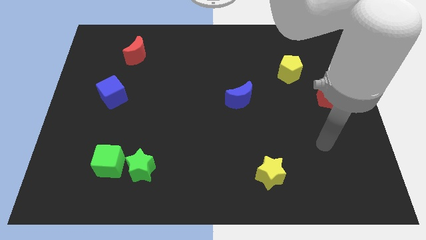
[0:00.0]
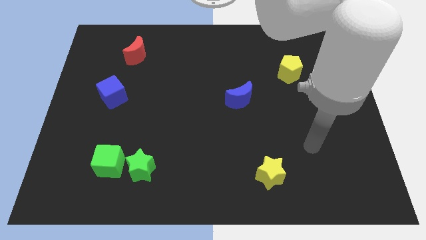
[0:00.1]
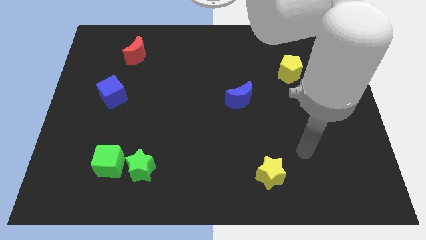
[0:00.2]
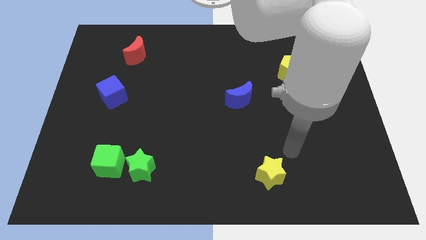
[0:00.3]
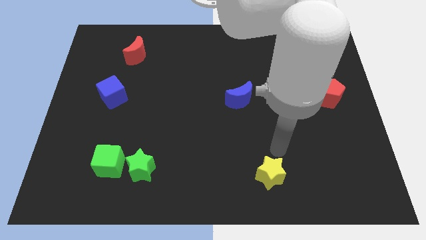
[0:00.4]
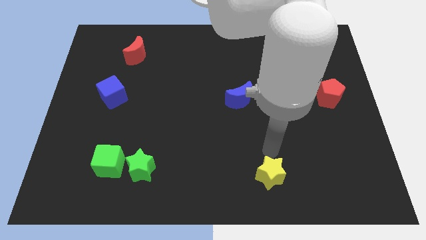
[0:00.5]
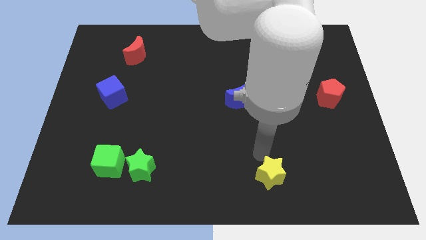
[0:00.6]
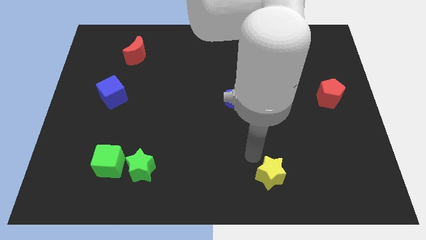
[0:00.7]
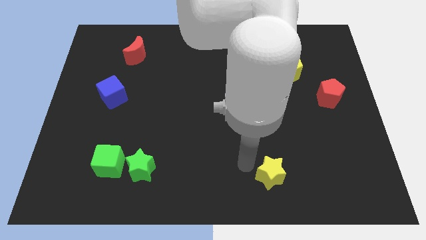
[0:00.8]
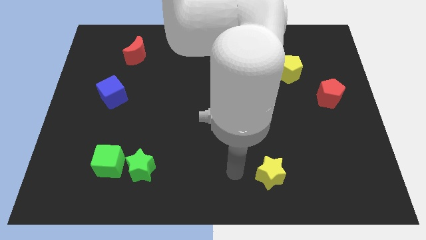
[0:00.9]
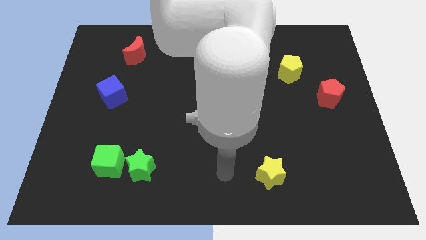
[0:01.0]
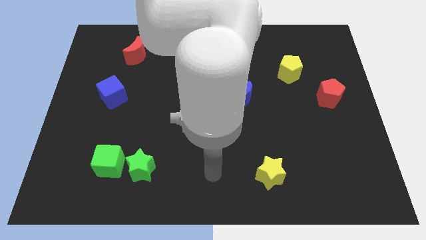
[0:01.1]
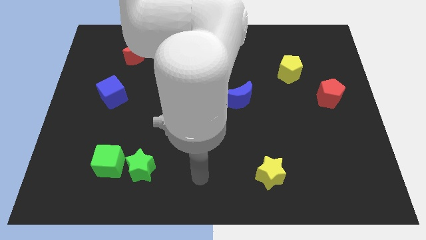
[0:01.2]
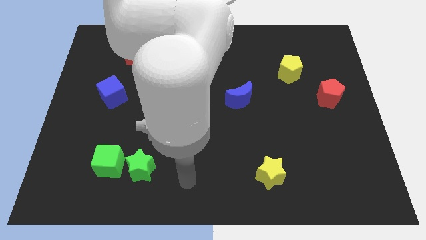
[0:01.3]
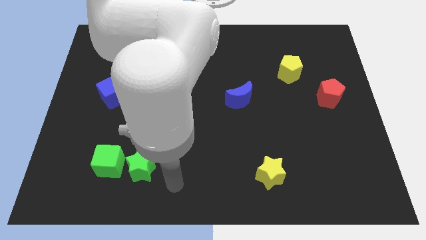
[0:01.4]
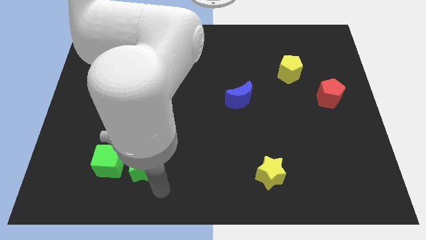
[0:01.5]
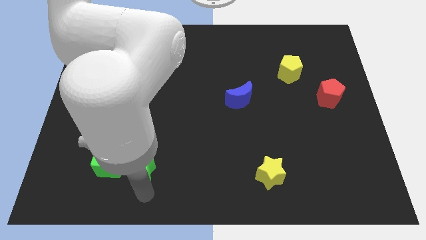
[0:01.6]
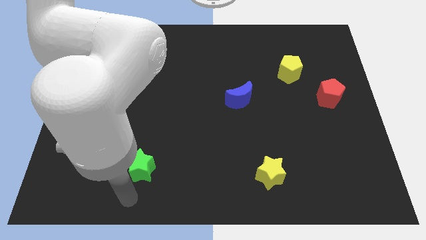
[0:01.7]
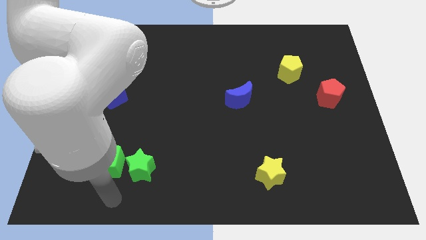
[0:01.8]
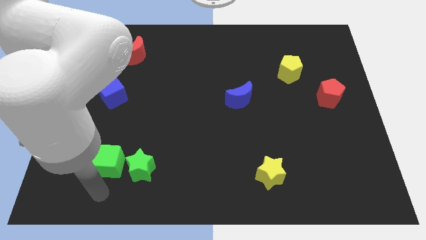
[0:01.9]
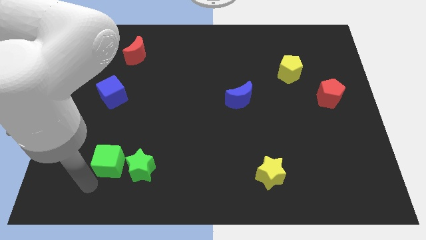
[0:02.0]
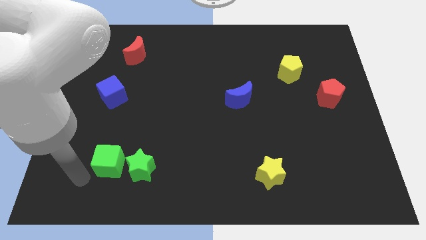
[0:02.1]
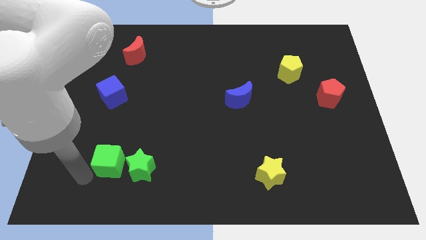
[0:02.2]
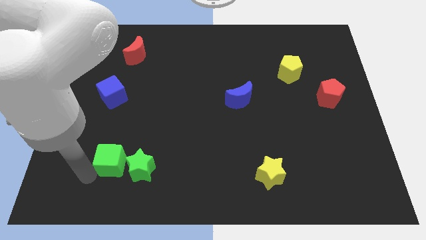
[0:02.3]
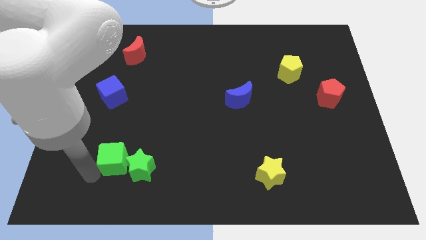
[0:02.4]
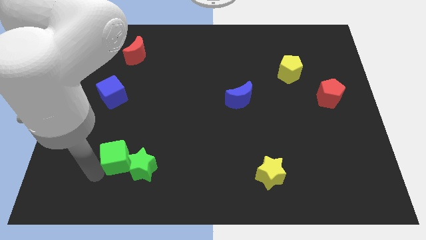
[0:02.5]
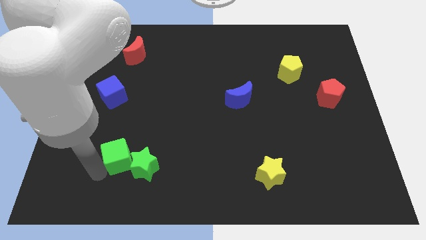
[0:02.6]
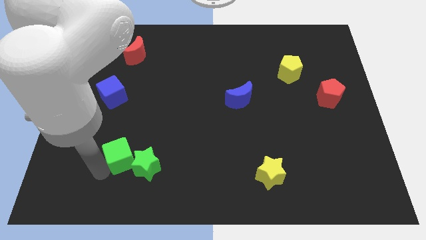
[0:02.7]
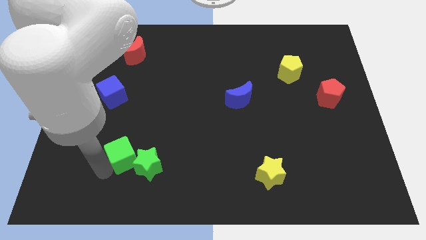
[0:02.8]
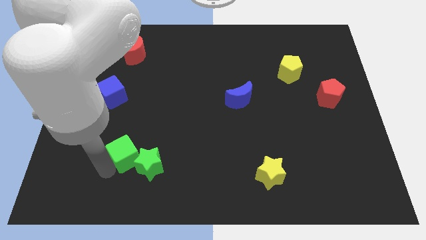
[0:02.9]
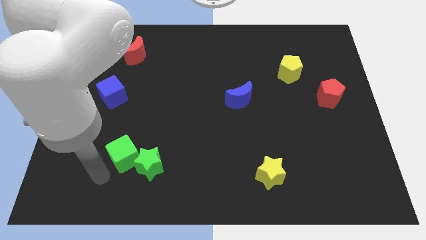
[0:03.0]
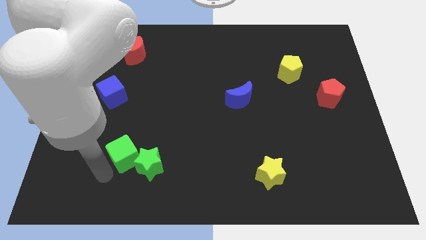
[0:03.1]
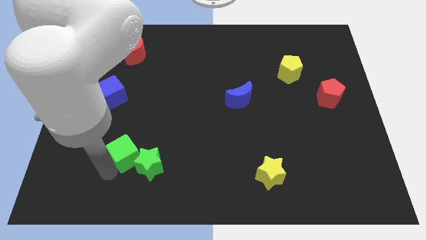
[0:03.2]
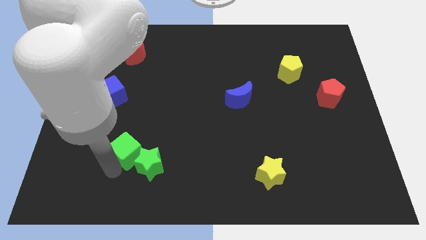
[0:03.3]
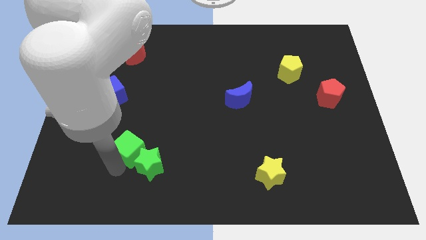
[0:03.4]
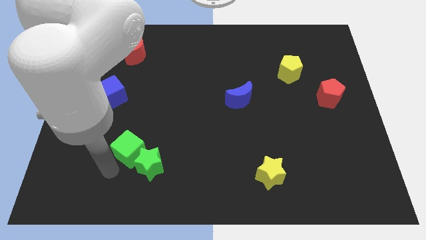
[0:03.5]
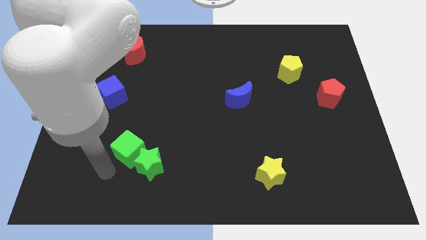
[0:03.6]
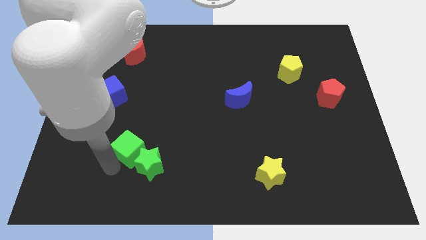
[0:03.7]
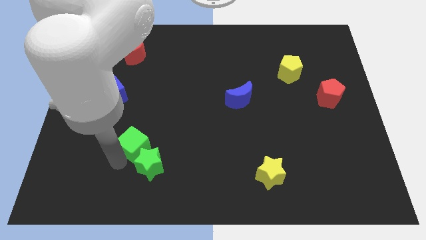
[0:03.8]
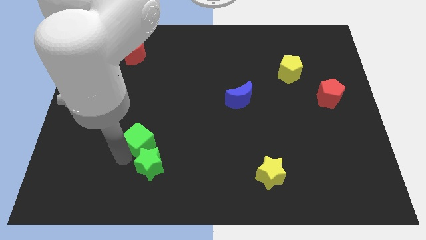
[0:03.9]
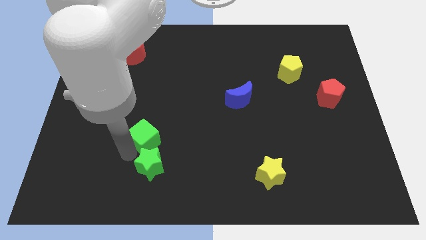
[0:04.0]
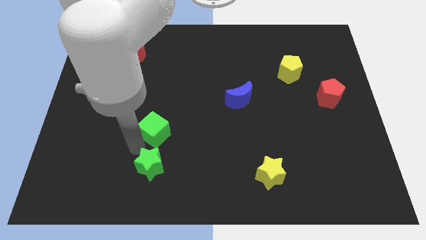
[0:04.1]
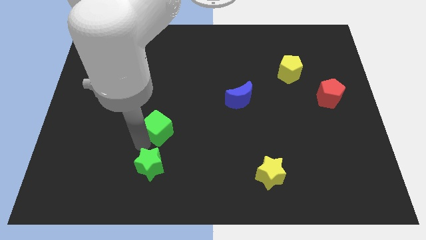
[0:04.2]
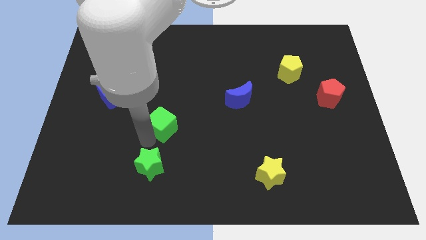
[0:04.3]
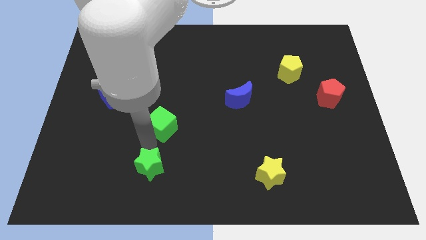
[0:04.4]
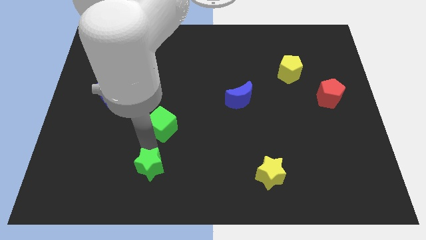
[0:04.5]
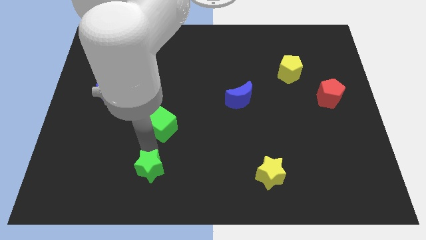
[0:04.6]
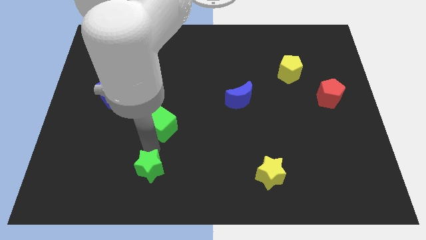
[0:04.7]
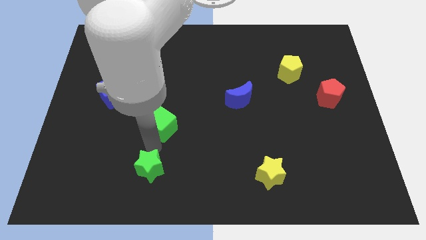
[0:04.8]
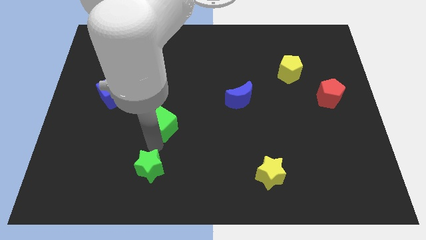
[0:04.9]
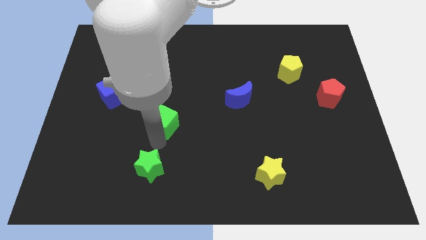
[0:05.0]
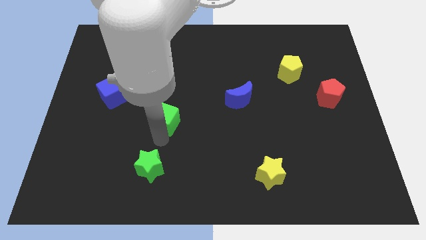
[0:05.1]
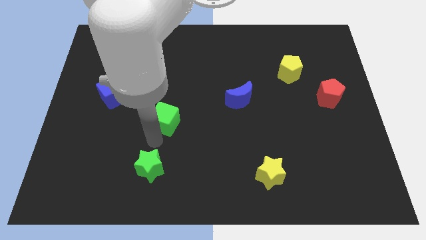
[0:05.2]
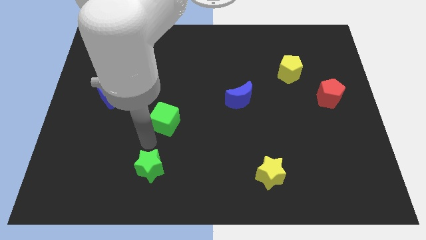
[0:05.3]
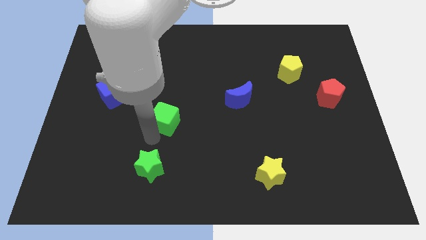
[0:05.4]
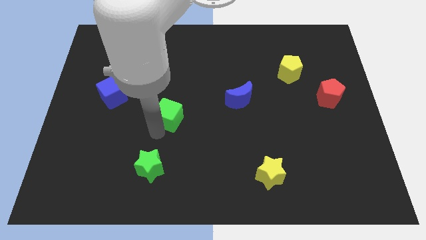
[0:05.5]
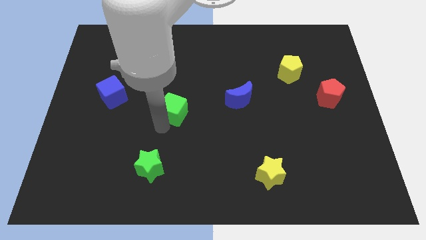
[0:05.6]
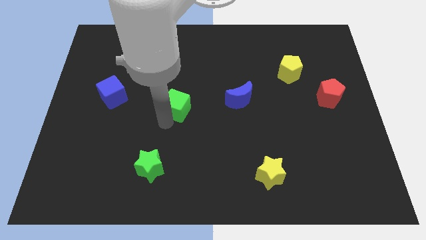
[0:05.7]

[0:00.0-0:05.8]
slide the green cube diagonally upwards and right

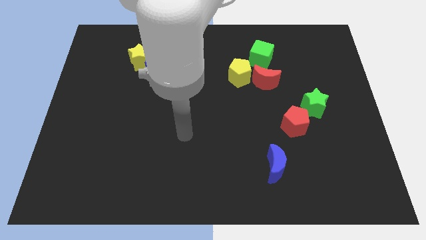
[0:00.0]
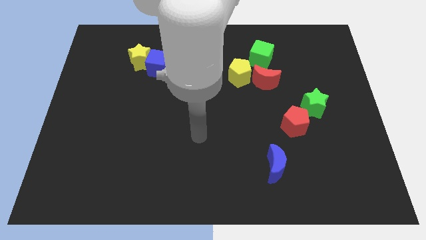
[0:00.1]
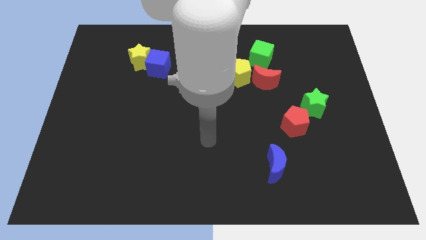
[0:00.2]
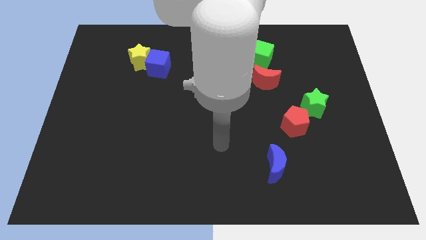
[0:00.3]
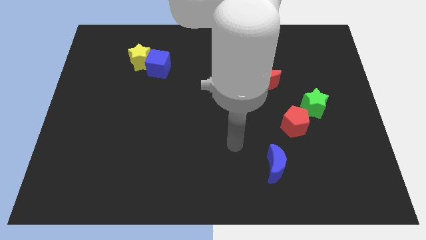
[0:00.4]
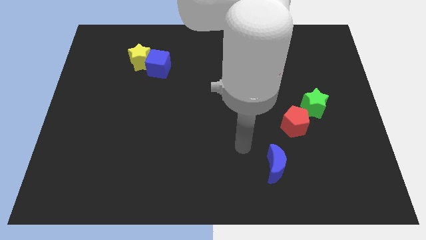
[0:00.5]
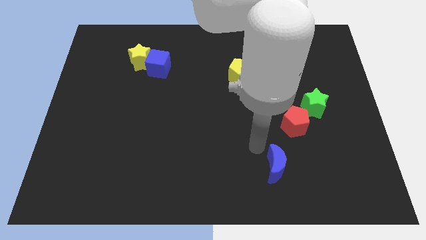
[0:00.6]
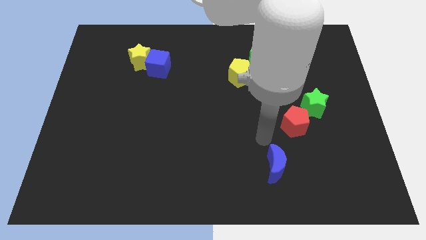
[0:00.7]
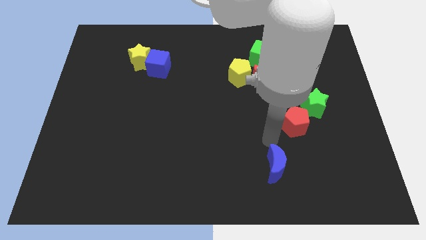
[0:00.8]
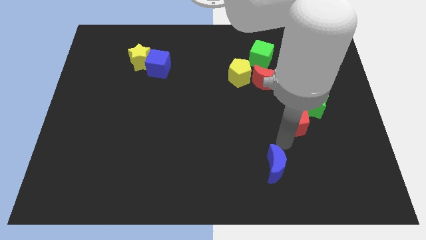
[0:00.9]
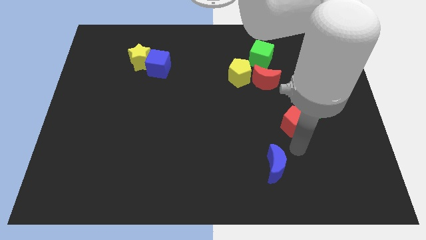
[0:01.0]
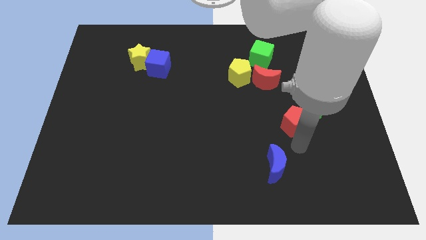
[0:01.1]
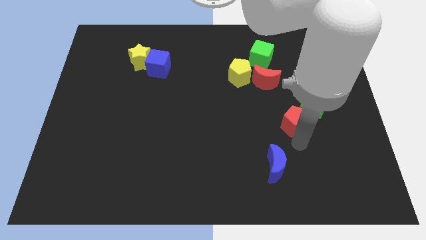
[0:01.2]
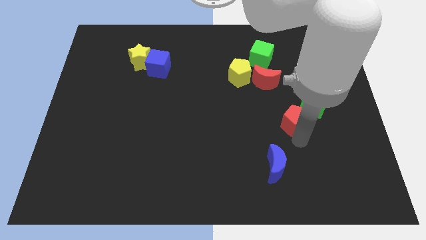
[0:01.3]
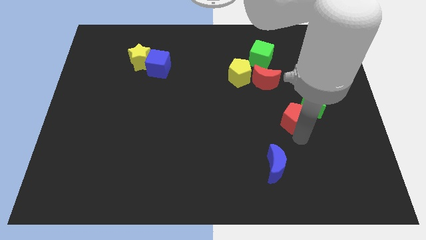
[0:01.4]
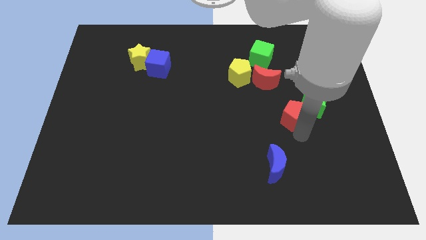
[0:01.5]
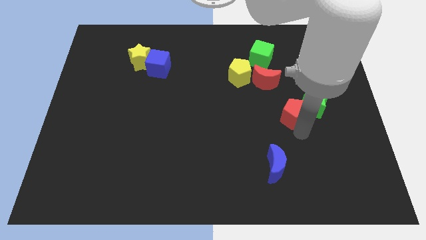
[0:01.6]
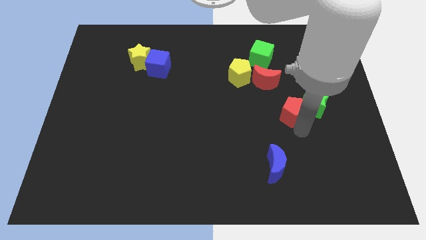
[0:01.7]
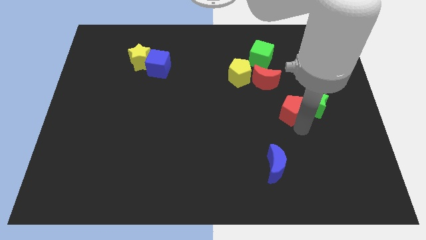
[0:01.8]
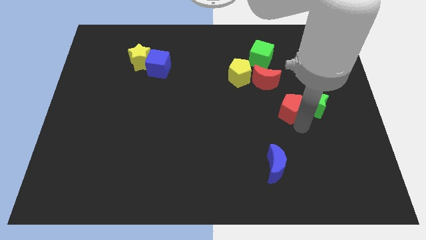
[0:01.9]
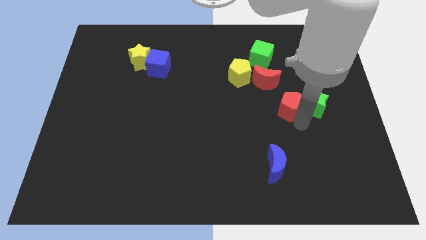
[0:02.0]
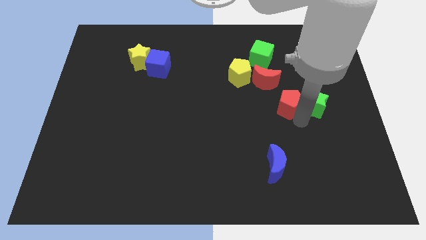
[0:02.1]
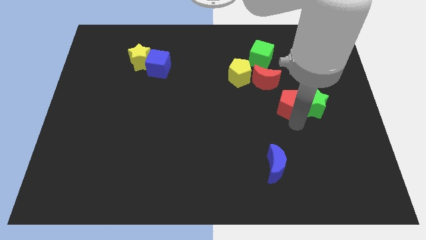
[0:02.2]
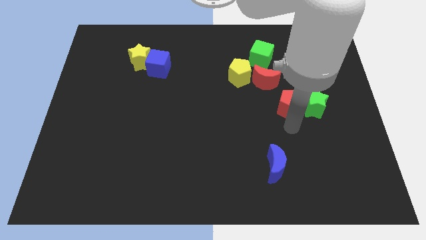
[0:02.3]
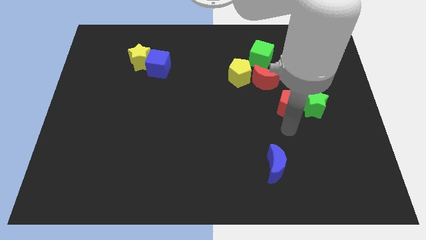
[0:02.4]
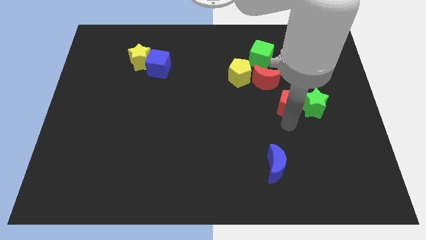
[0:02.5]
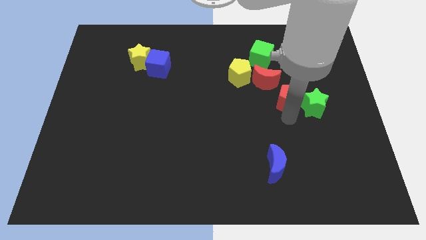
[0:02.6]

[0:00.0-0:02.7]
move the red pentagon up slightly
